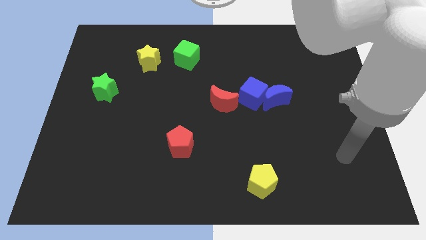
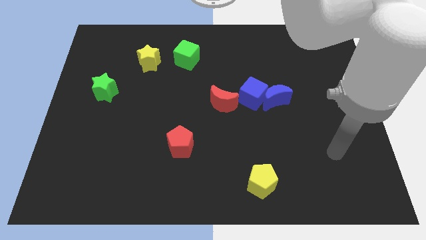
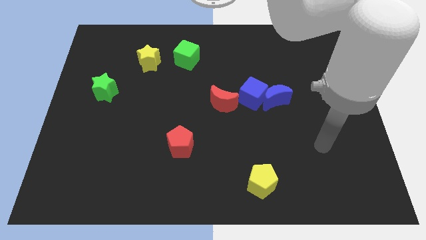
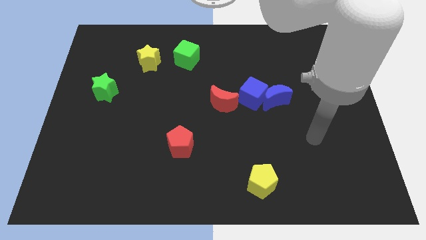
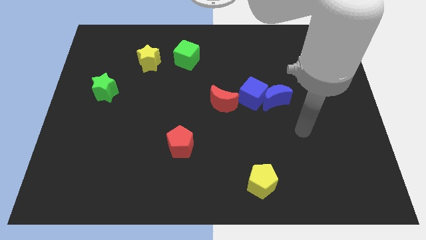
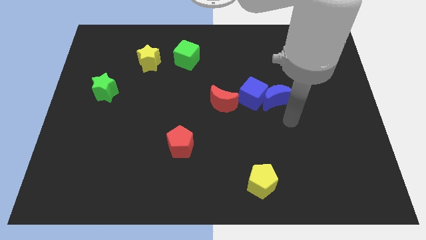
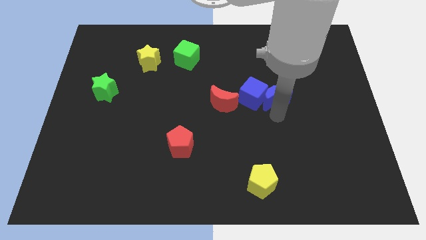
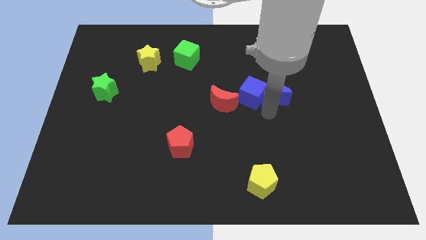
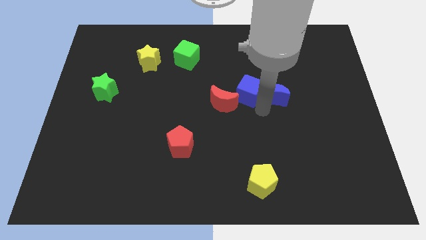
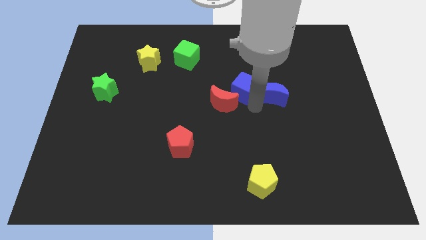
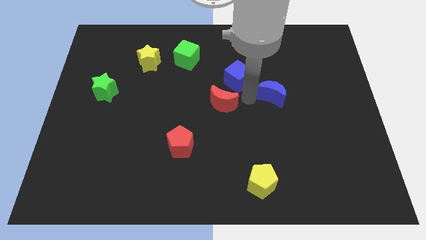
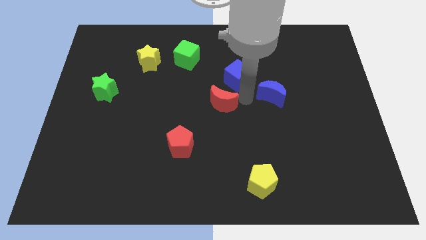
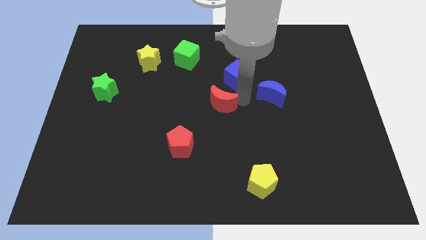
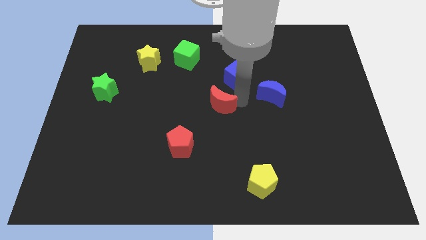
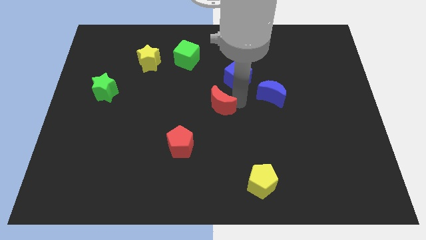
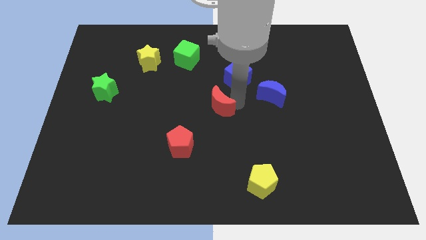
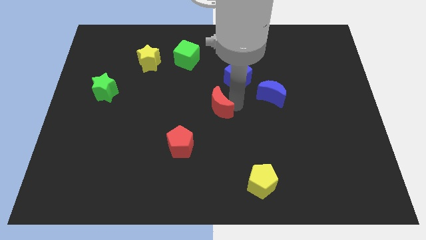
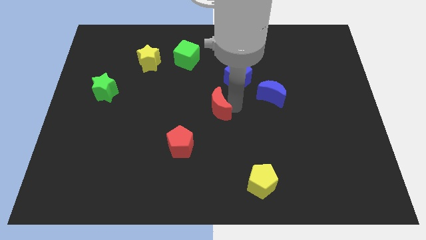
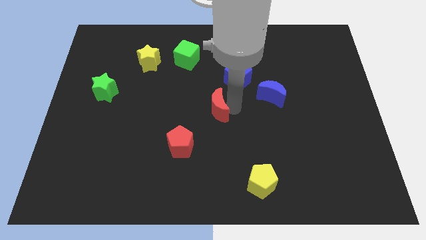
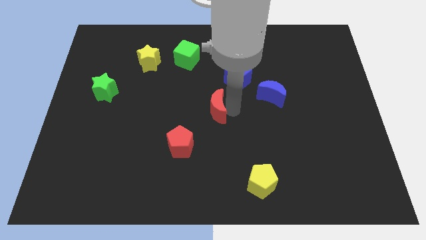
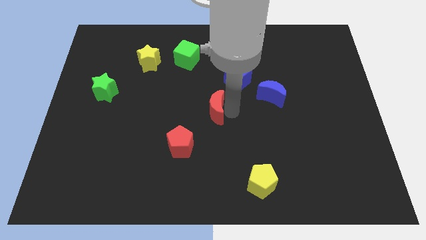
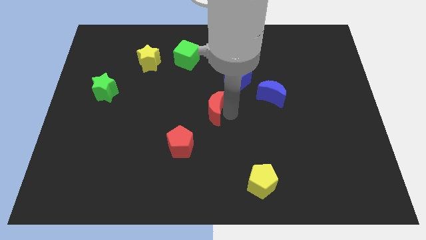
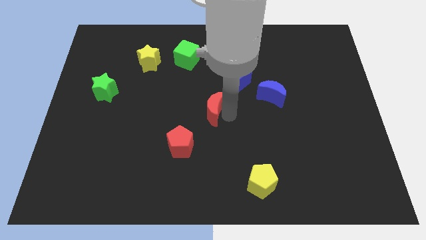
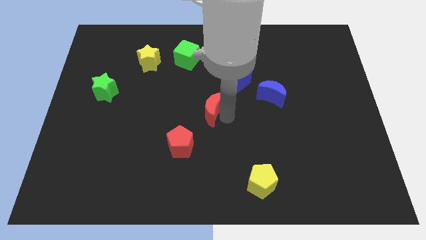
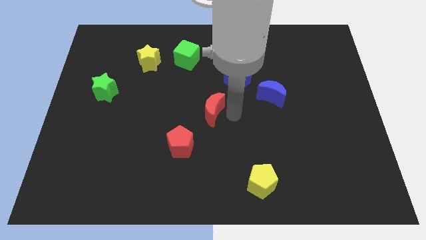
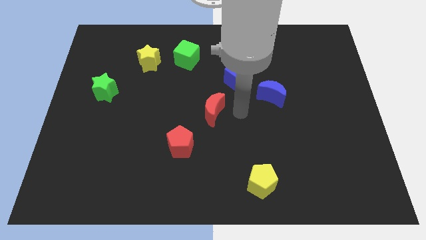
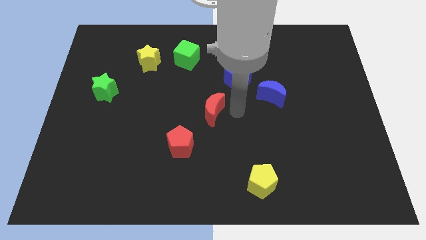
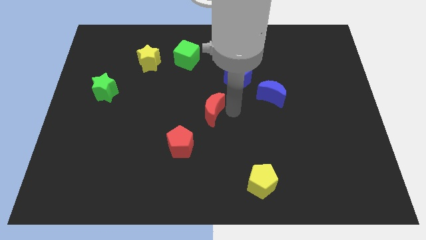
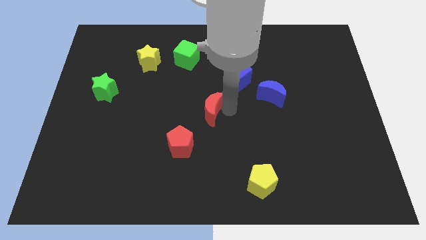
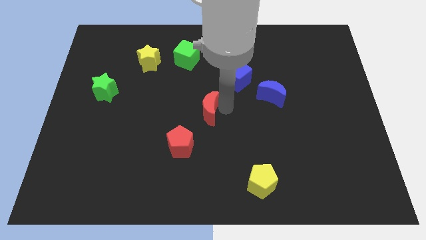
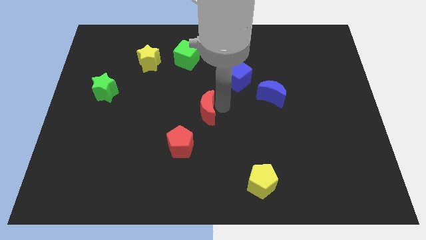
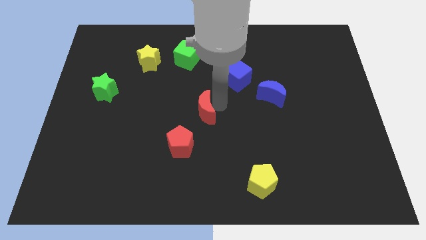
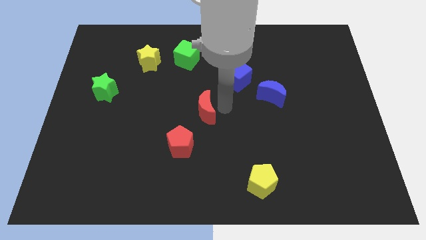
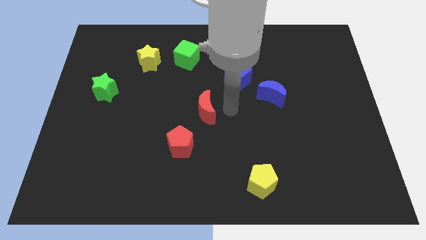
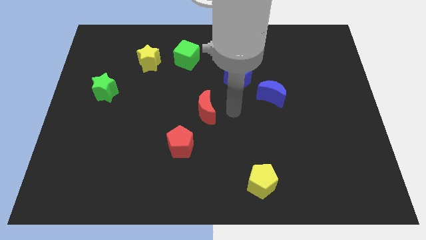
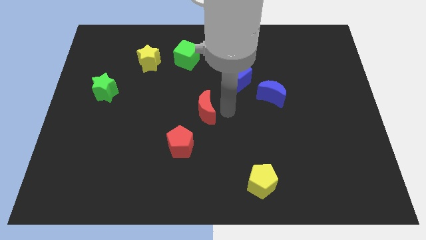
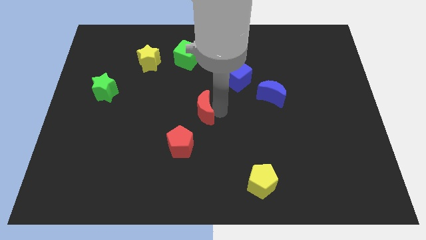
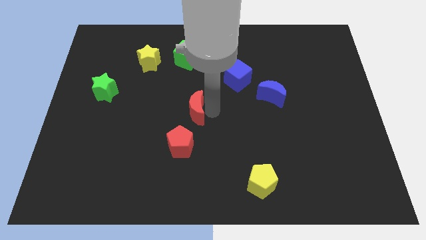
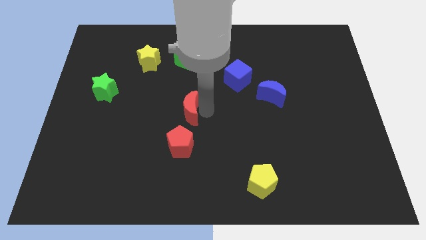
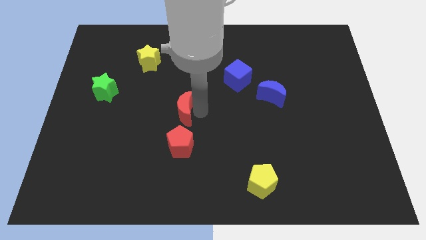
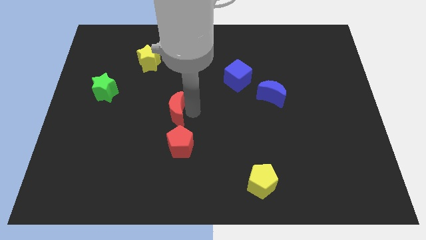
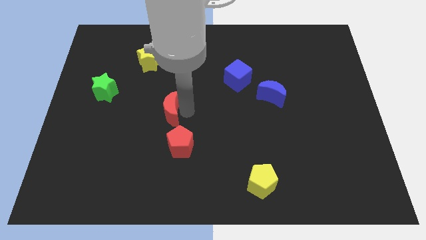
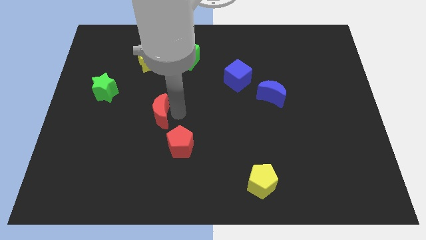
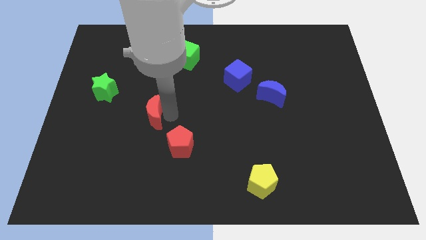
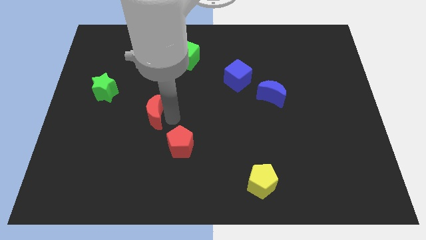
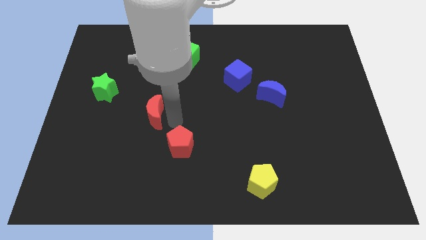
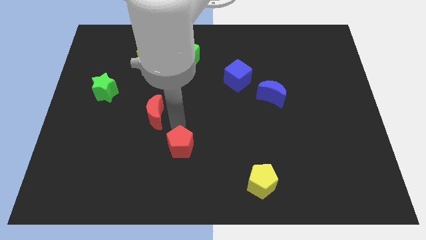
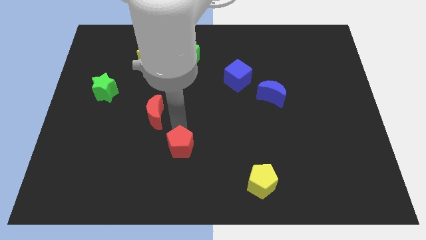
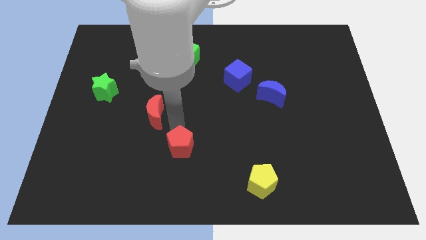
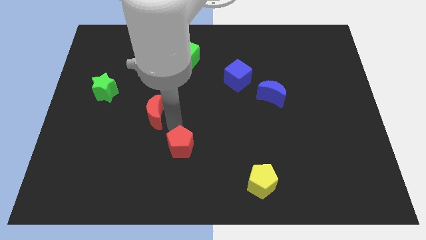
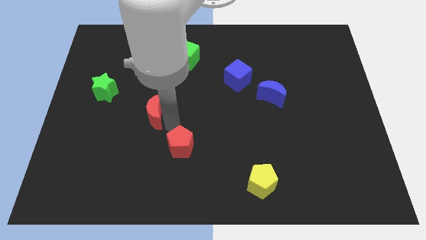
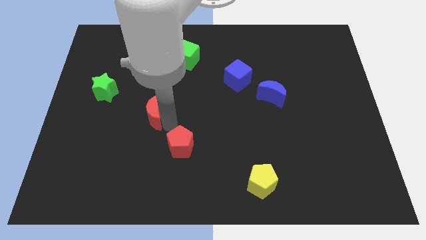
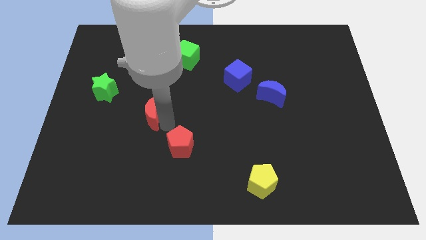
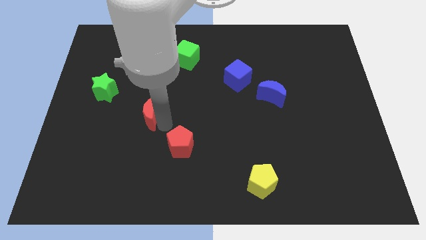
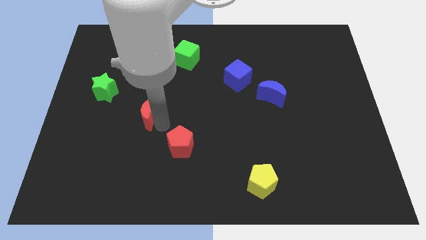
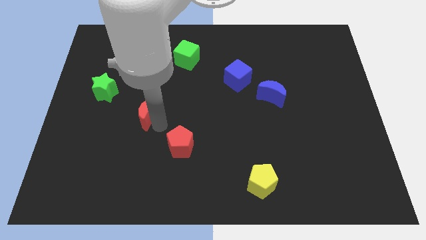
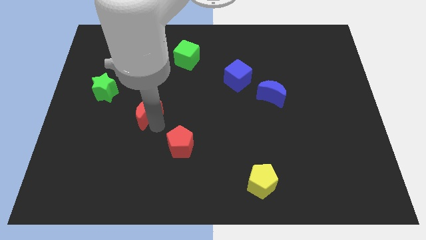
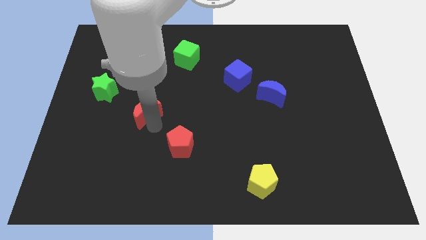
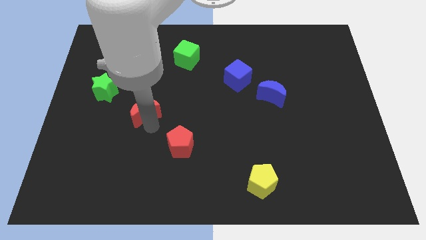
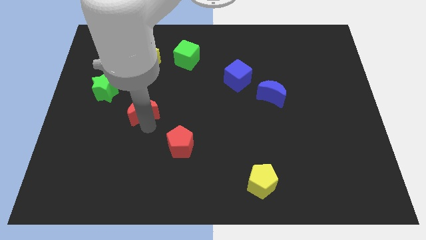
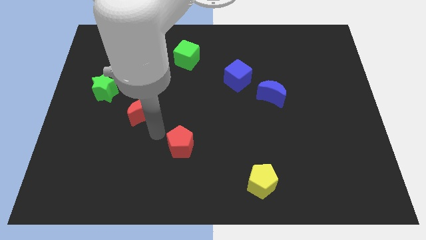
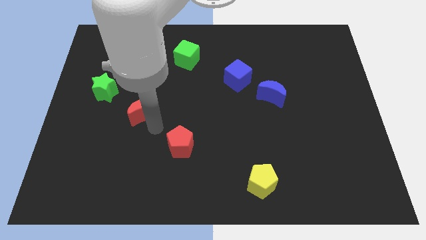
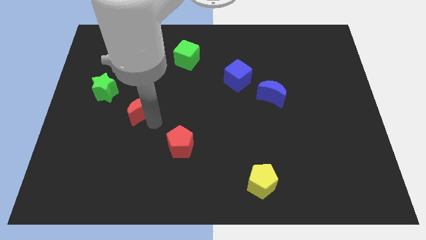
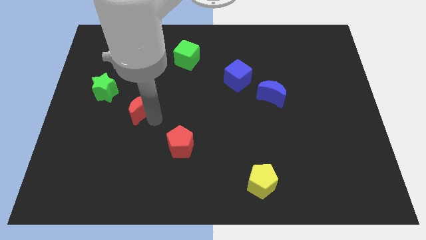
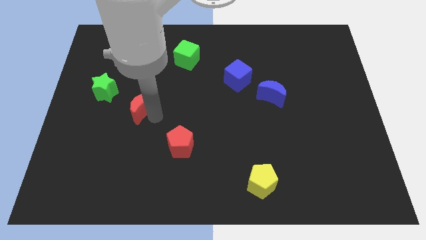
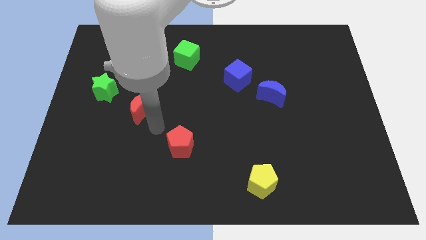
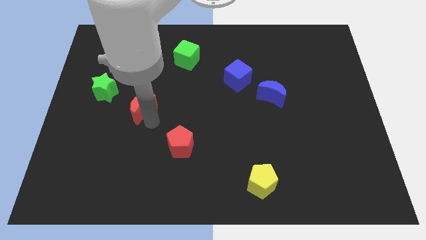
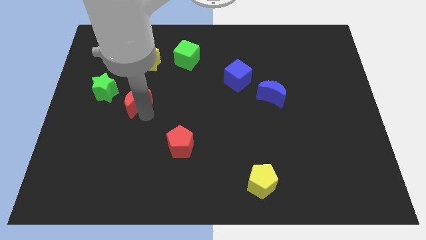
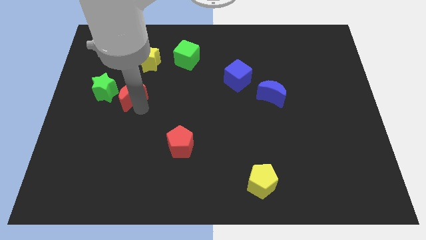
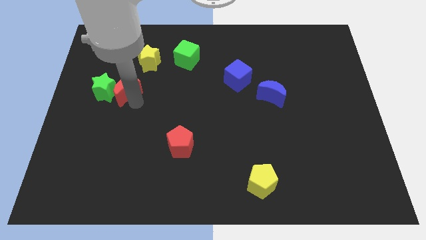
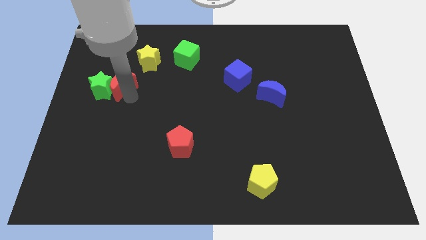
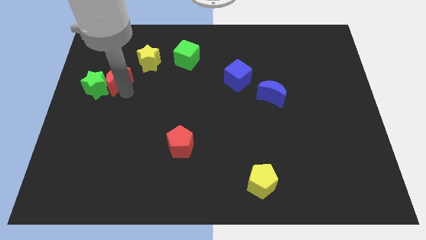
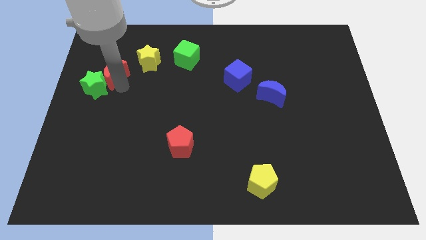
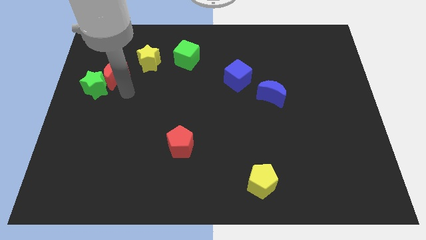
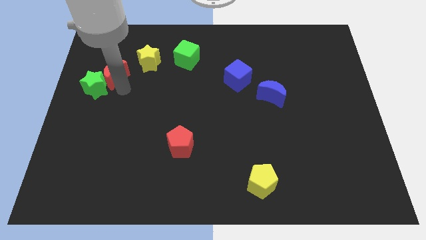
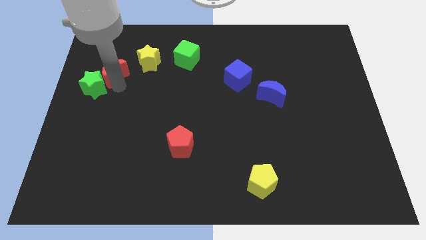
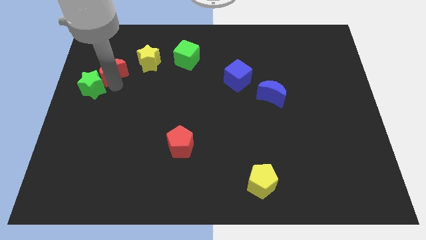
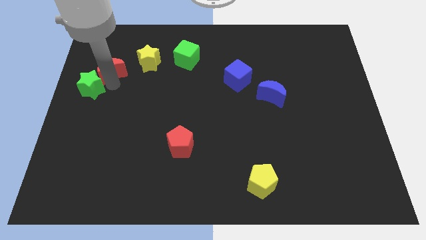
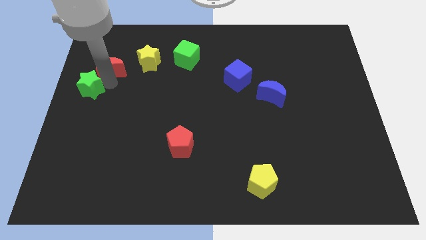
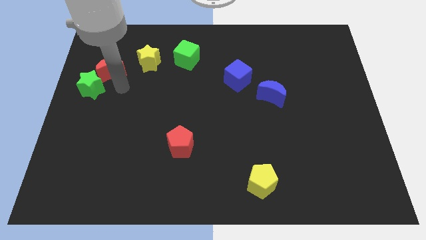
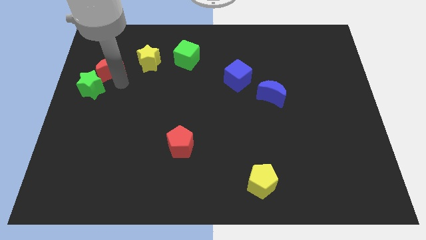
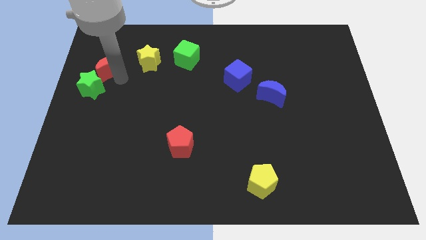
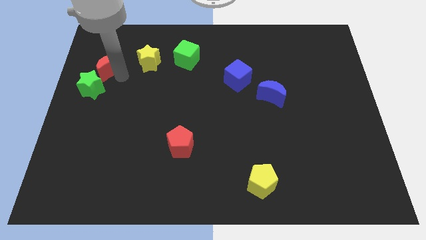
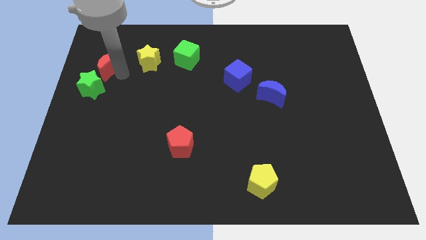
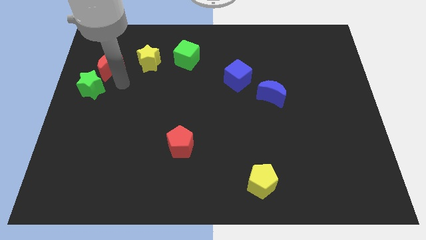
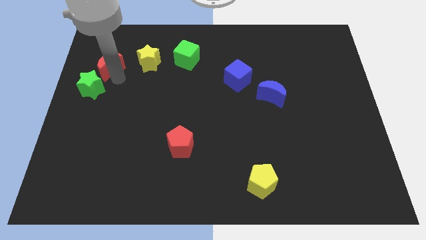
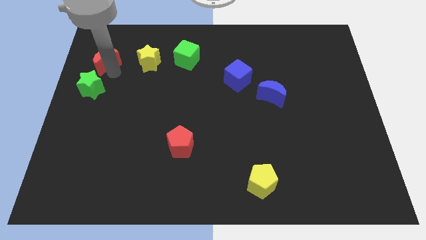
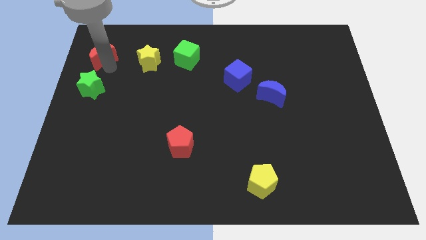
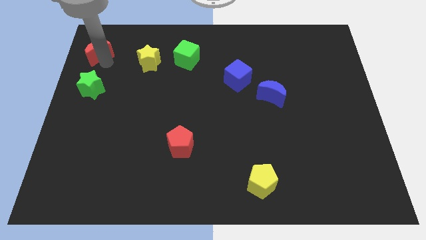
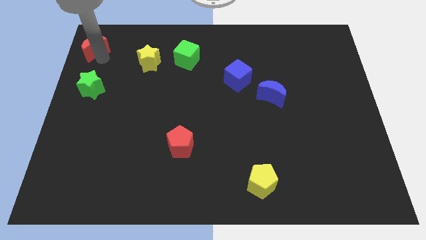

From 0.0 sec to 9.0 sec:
push the red moon to the top left
